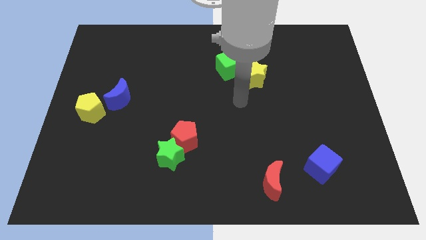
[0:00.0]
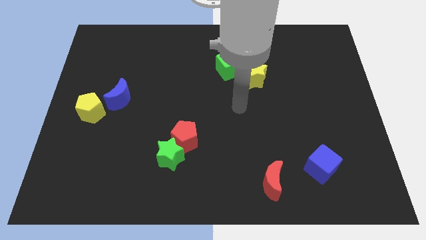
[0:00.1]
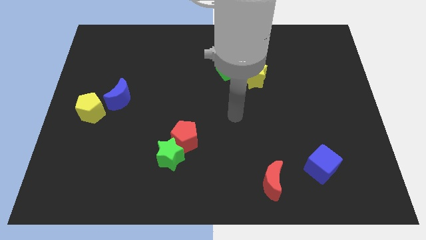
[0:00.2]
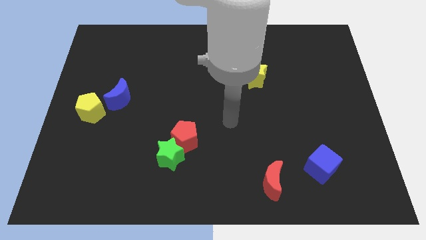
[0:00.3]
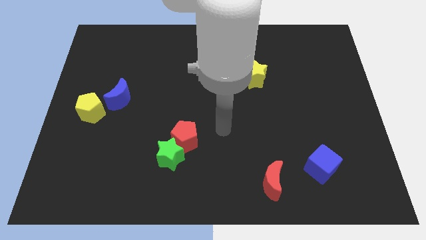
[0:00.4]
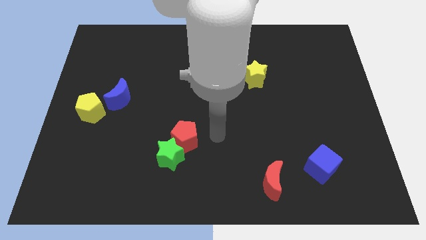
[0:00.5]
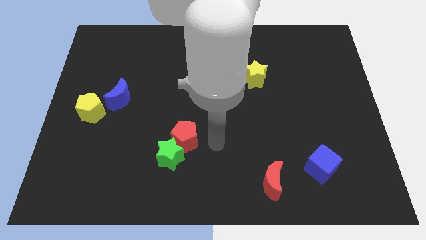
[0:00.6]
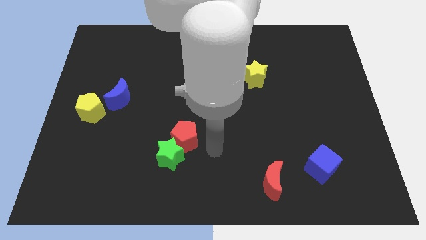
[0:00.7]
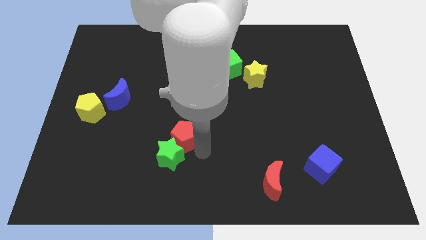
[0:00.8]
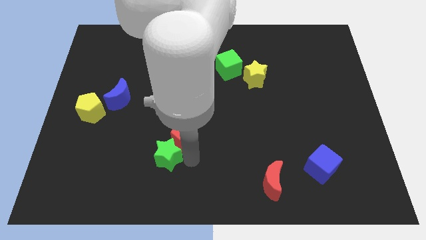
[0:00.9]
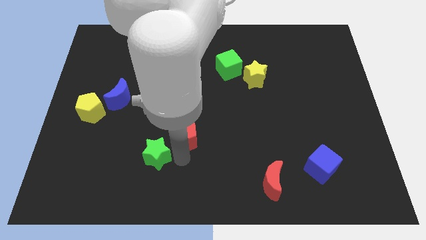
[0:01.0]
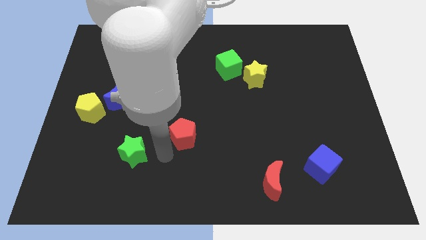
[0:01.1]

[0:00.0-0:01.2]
pull the red pentagon apart from the green star

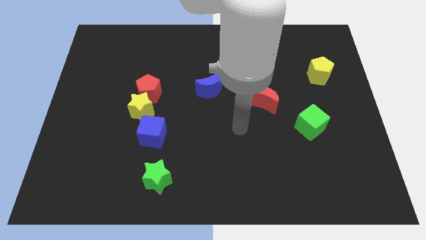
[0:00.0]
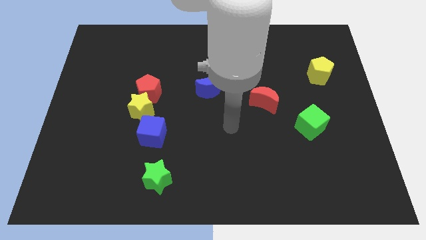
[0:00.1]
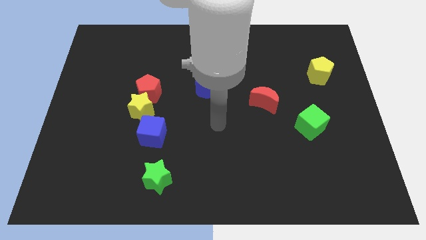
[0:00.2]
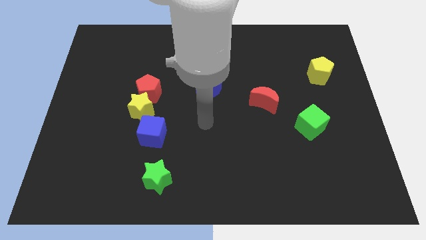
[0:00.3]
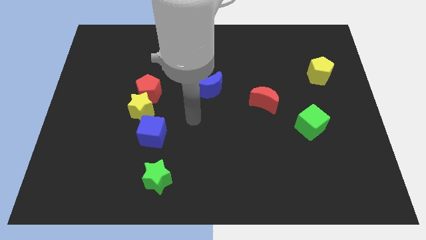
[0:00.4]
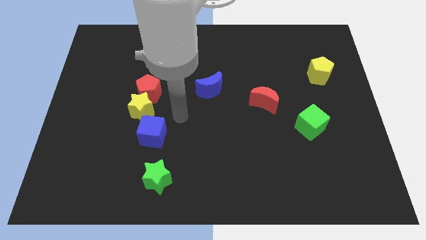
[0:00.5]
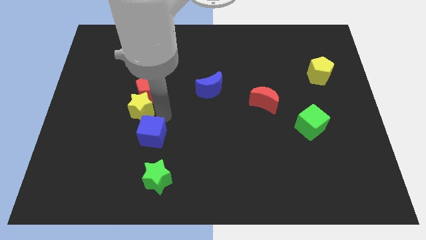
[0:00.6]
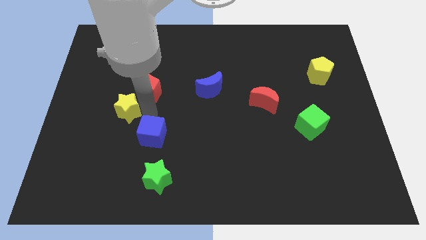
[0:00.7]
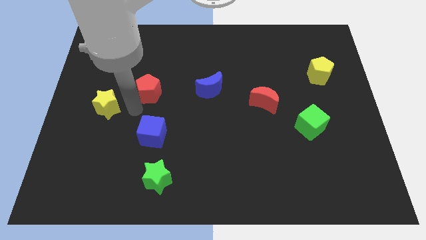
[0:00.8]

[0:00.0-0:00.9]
move the red pentagon away from the yellow star

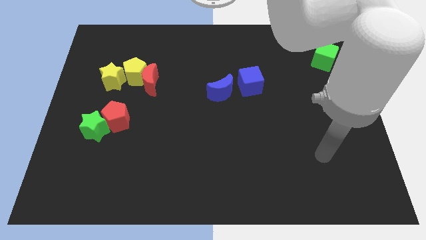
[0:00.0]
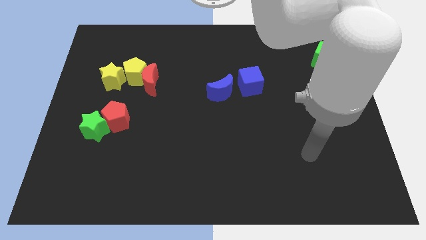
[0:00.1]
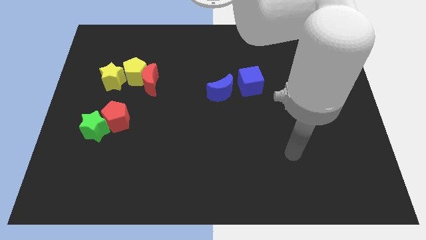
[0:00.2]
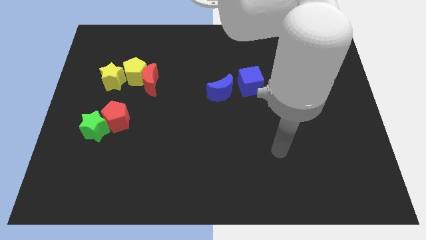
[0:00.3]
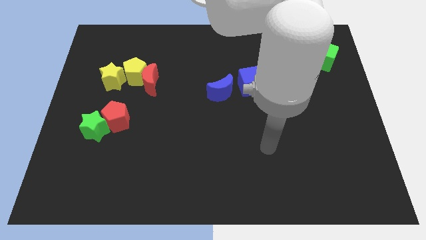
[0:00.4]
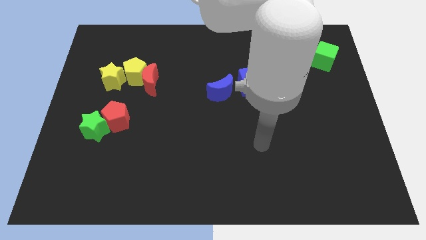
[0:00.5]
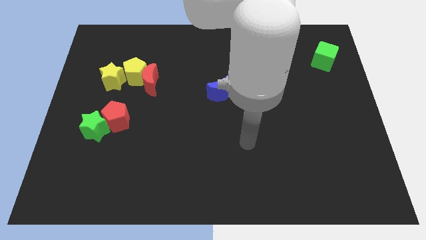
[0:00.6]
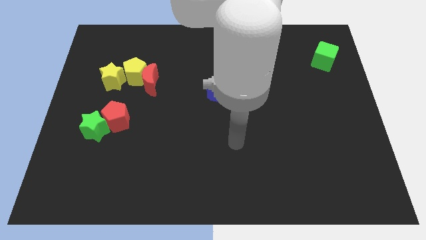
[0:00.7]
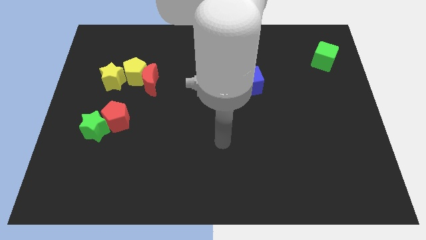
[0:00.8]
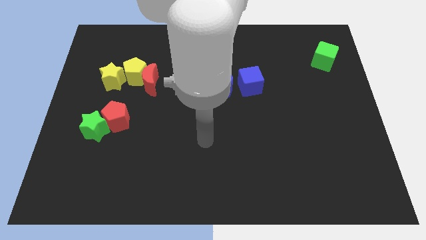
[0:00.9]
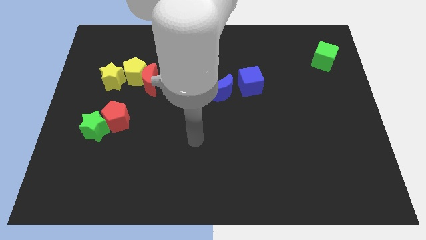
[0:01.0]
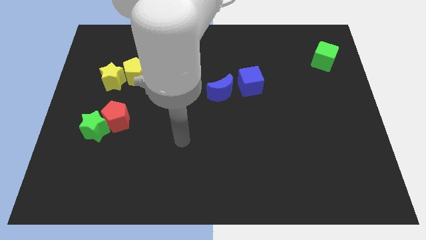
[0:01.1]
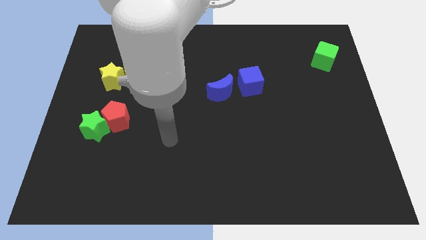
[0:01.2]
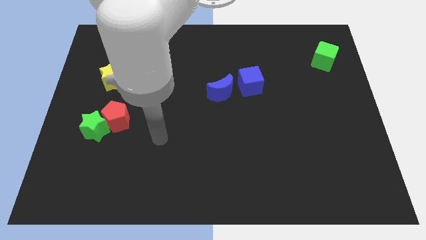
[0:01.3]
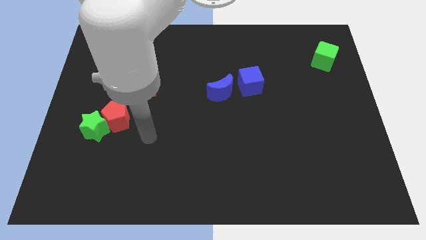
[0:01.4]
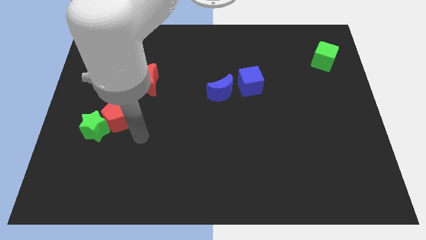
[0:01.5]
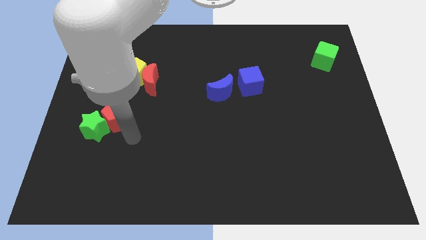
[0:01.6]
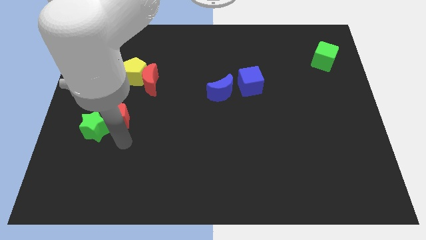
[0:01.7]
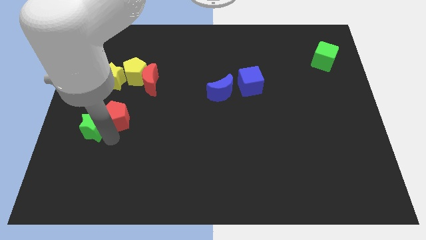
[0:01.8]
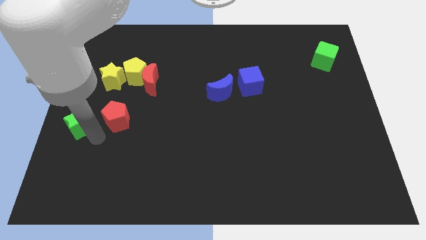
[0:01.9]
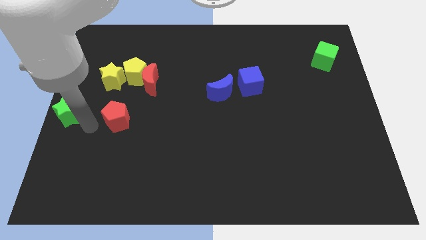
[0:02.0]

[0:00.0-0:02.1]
separate the red pentagon from the green star

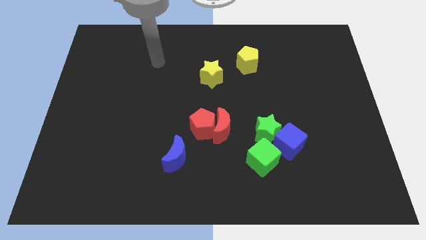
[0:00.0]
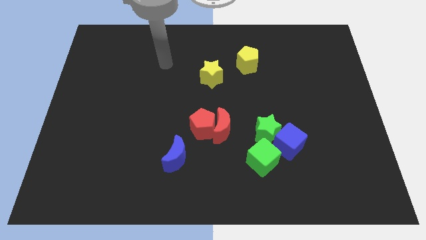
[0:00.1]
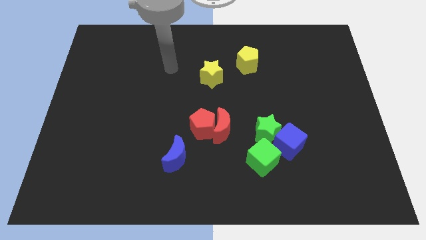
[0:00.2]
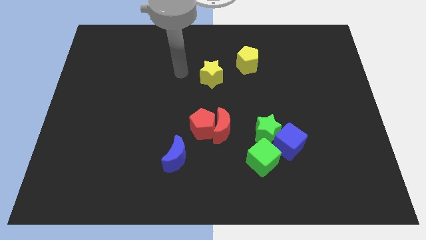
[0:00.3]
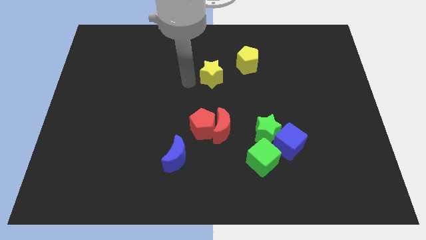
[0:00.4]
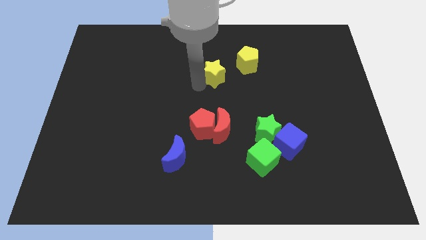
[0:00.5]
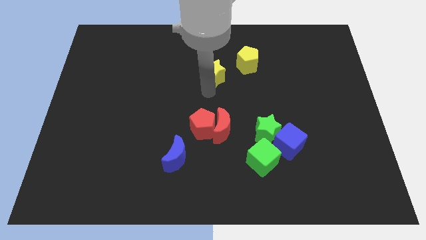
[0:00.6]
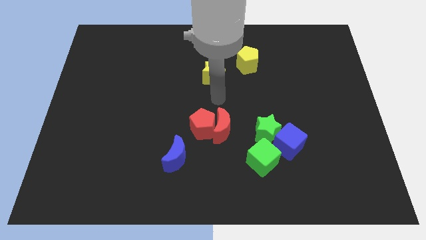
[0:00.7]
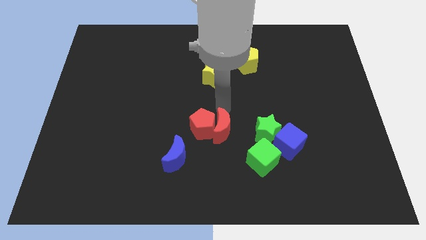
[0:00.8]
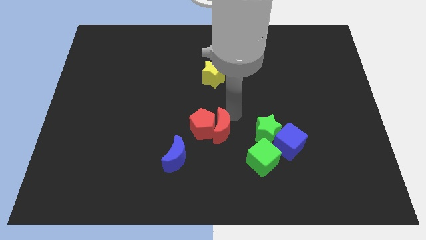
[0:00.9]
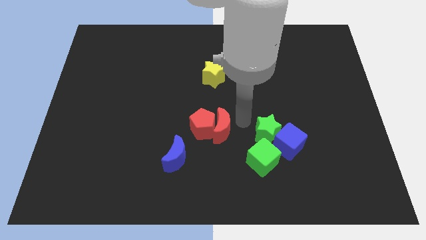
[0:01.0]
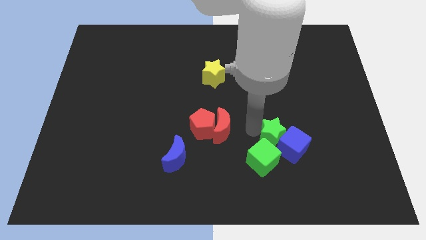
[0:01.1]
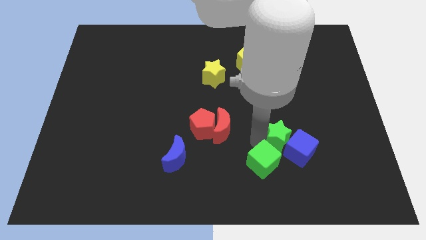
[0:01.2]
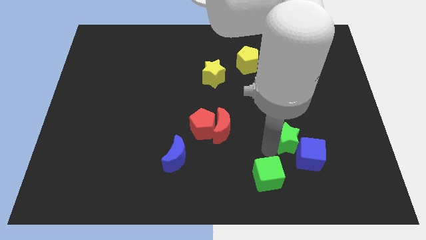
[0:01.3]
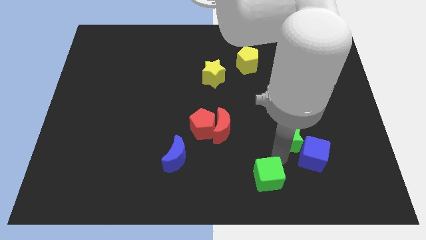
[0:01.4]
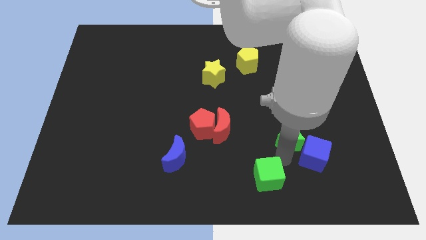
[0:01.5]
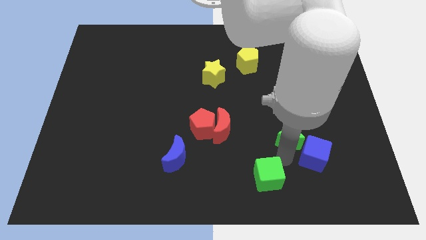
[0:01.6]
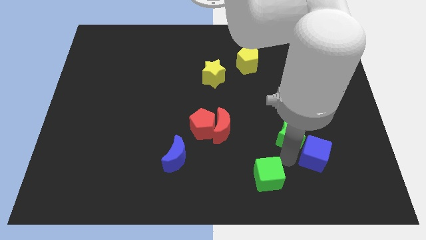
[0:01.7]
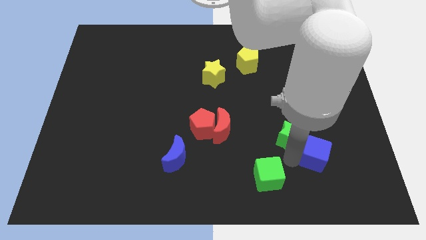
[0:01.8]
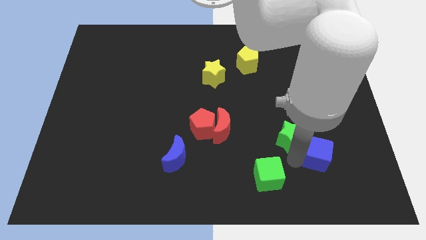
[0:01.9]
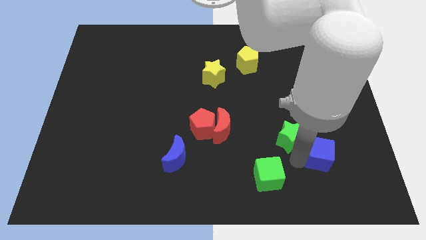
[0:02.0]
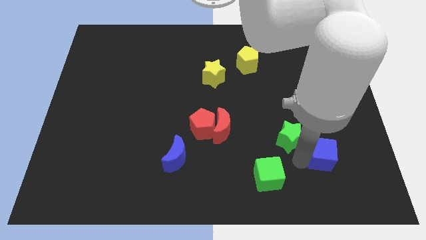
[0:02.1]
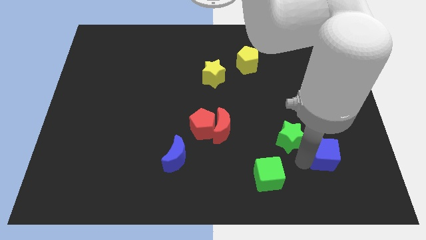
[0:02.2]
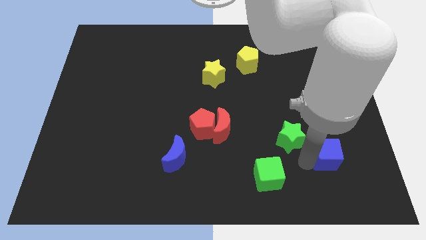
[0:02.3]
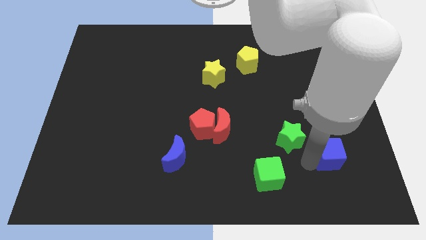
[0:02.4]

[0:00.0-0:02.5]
move the blue cube away from the green star and green cube

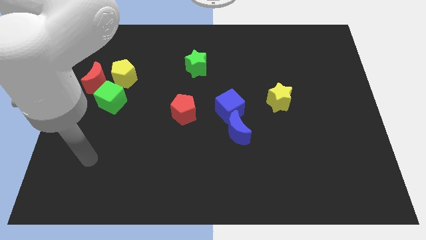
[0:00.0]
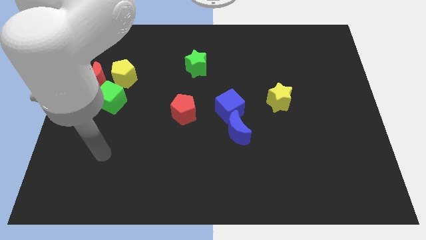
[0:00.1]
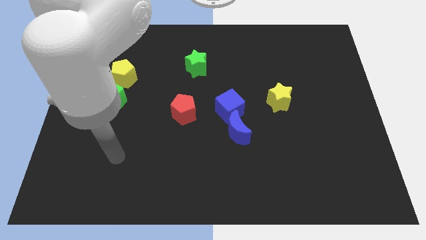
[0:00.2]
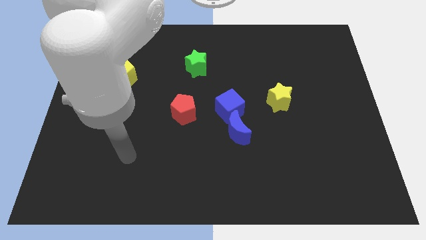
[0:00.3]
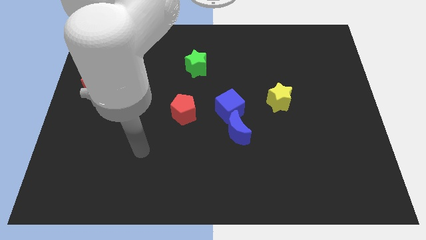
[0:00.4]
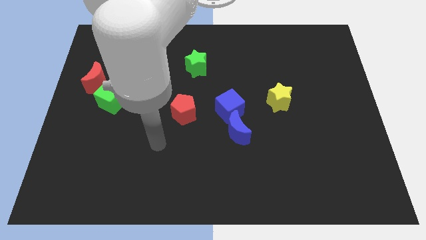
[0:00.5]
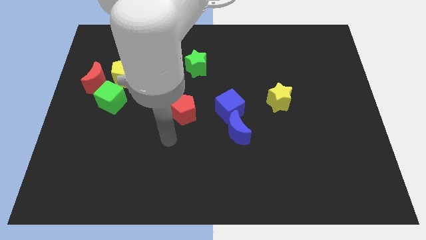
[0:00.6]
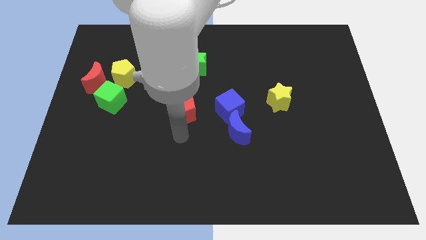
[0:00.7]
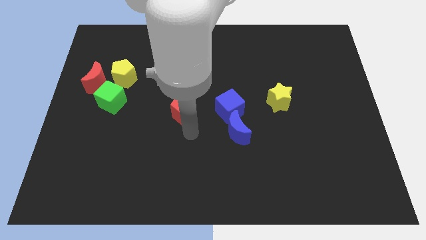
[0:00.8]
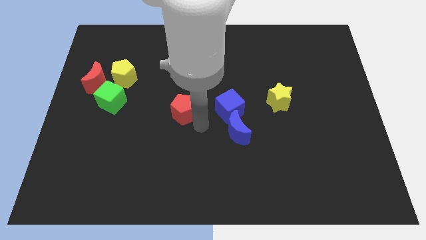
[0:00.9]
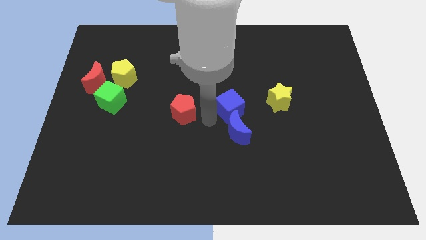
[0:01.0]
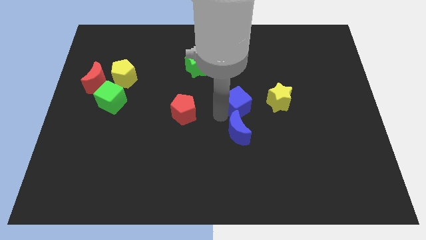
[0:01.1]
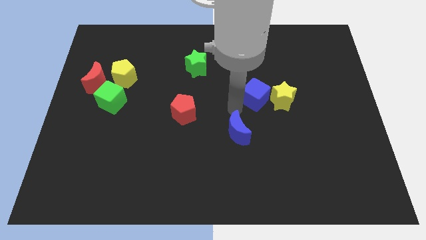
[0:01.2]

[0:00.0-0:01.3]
separate the blue moon from the blue cube

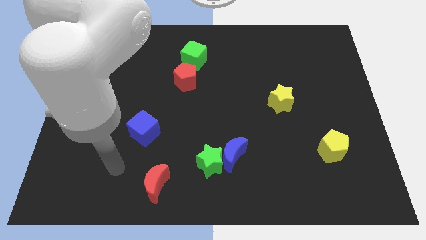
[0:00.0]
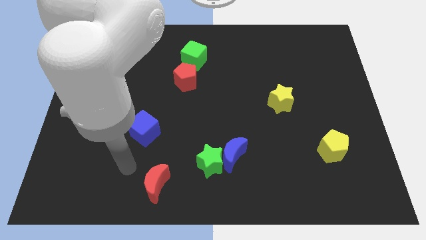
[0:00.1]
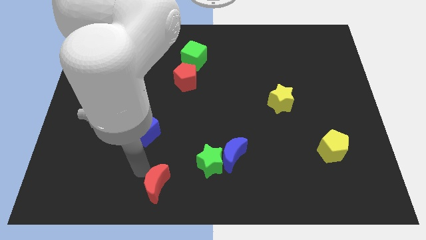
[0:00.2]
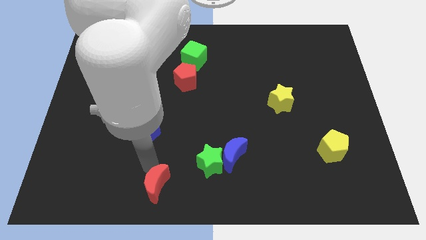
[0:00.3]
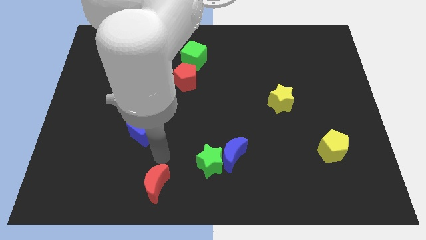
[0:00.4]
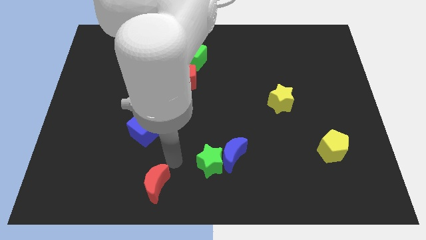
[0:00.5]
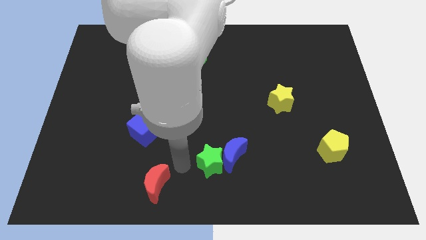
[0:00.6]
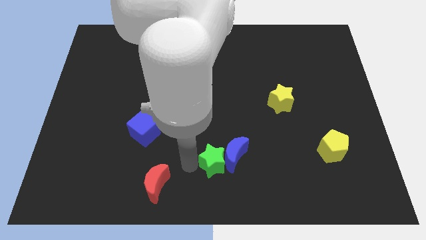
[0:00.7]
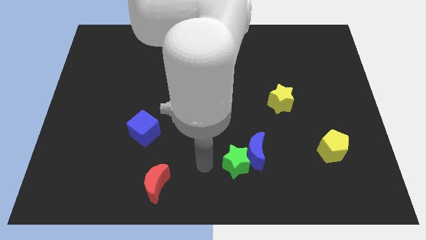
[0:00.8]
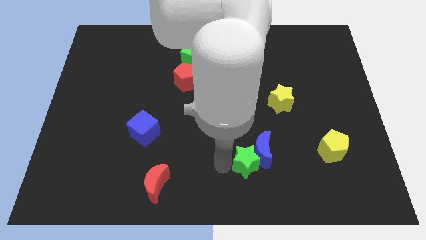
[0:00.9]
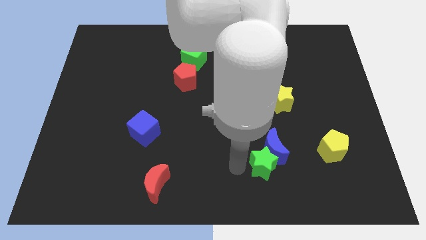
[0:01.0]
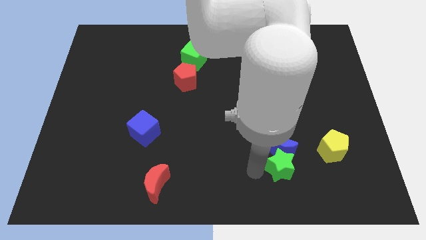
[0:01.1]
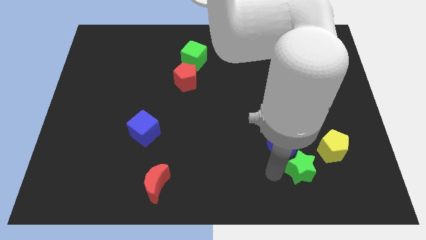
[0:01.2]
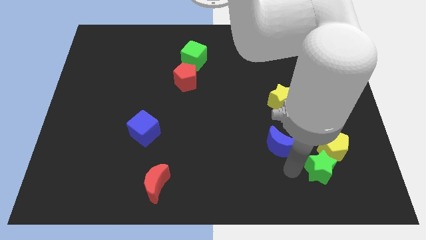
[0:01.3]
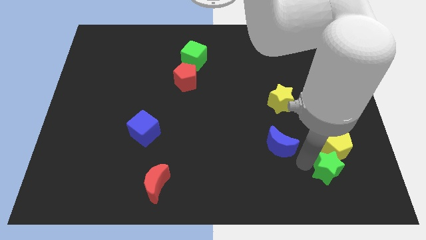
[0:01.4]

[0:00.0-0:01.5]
move the blue moon away from the green star
